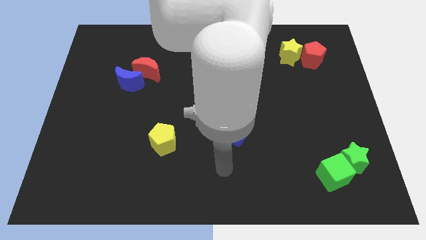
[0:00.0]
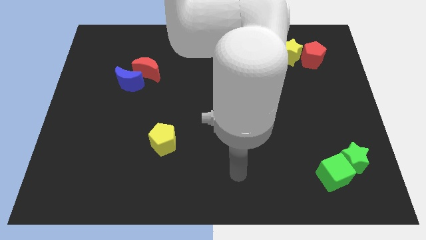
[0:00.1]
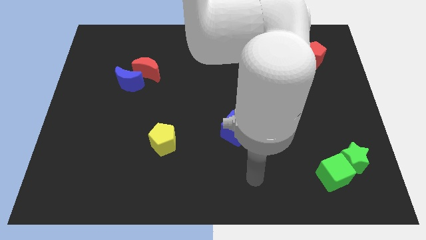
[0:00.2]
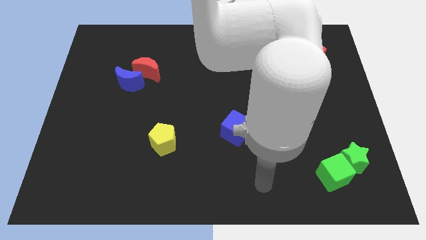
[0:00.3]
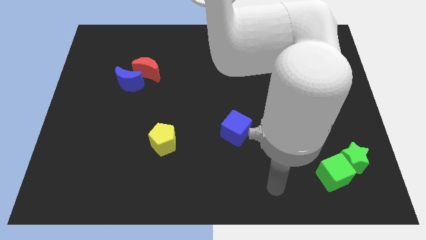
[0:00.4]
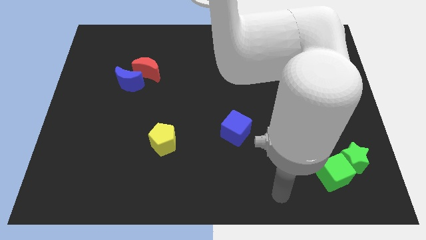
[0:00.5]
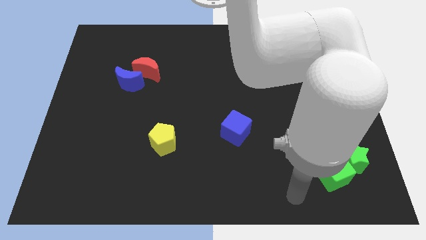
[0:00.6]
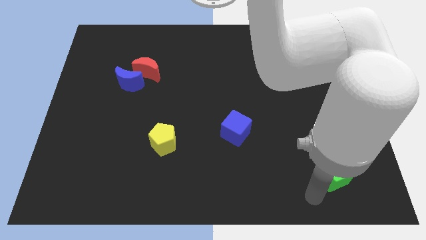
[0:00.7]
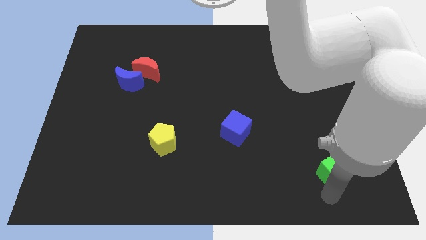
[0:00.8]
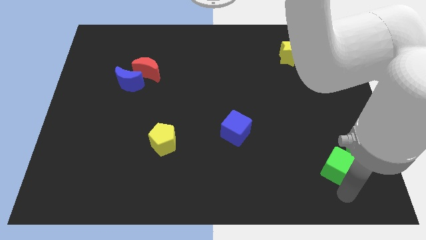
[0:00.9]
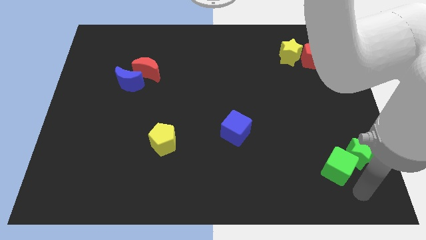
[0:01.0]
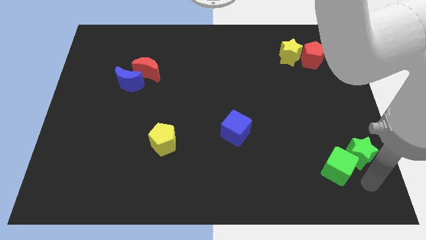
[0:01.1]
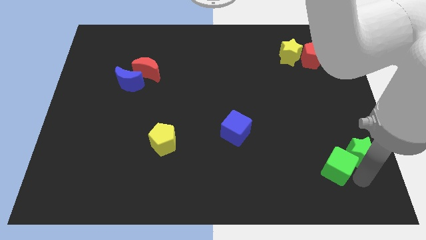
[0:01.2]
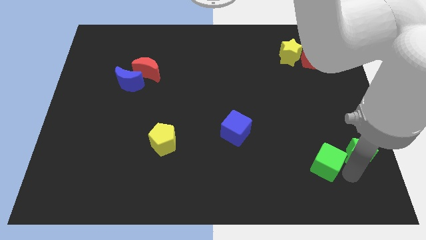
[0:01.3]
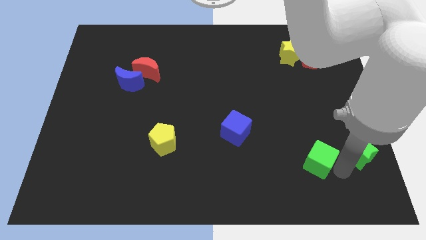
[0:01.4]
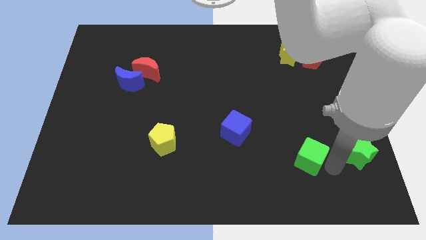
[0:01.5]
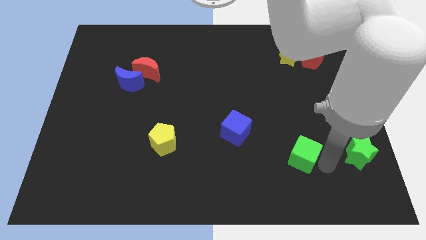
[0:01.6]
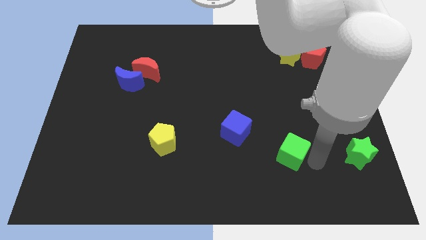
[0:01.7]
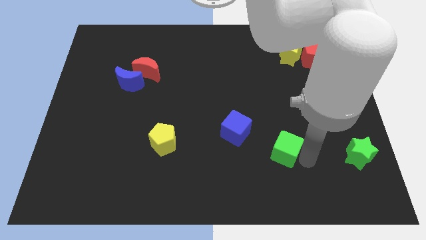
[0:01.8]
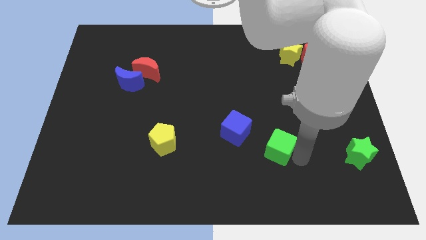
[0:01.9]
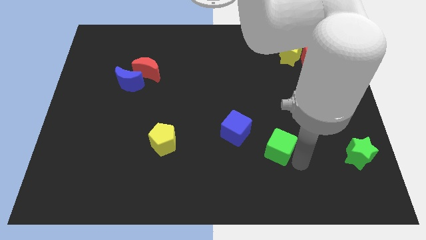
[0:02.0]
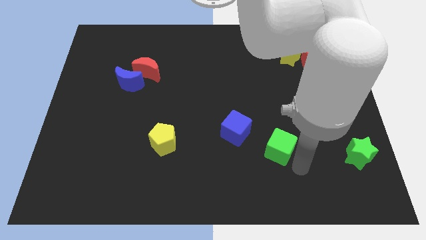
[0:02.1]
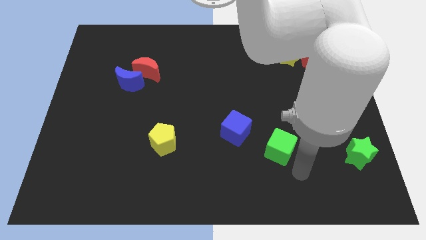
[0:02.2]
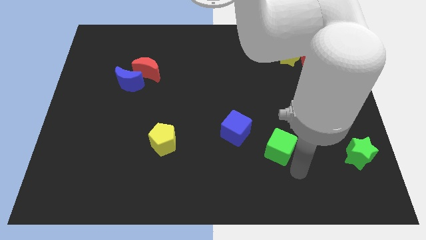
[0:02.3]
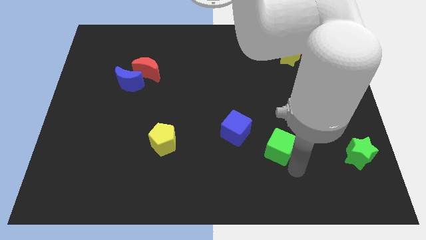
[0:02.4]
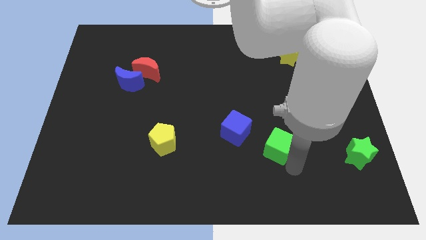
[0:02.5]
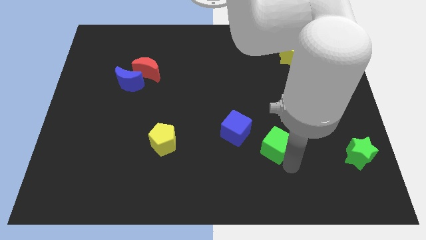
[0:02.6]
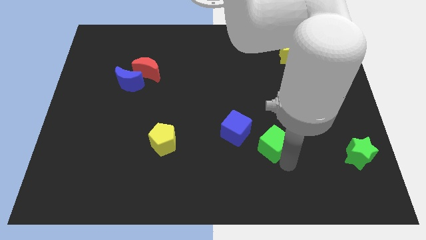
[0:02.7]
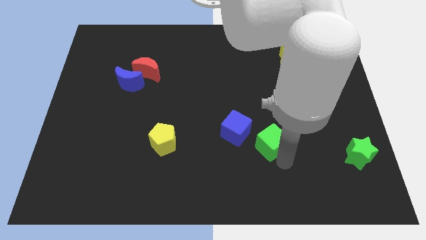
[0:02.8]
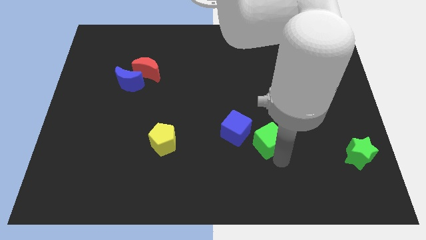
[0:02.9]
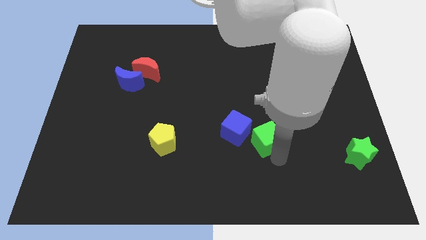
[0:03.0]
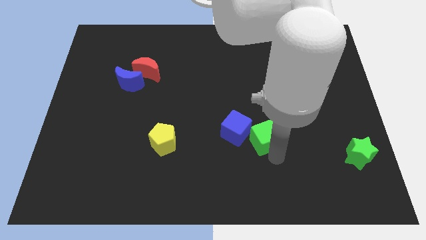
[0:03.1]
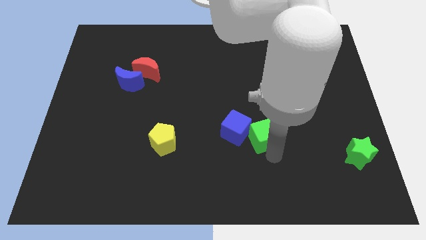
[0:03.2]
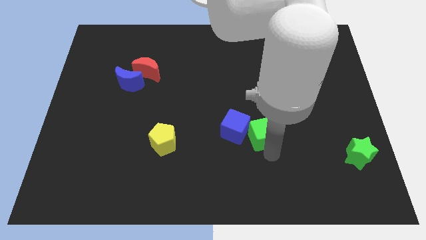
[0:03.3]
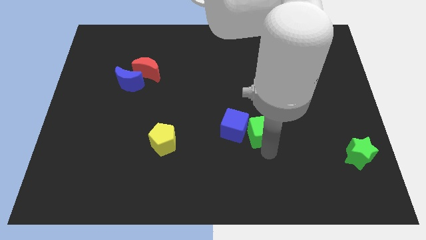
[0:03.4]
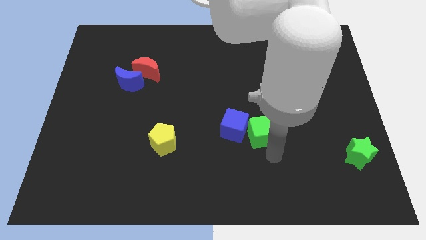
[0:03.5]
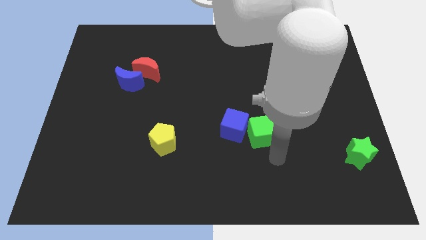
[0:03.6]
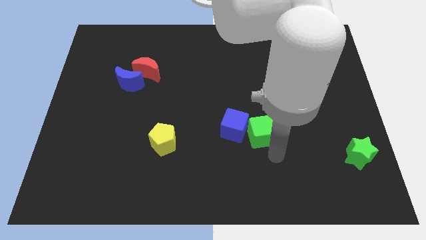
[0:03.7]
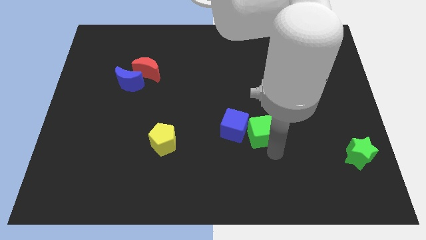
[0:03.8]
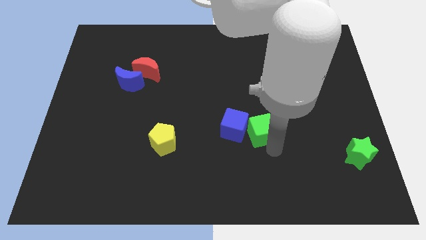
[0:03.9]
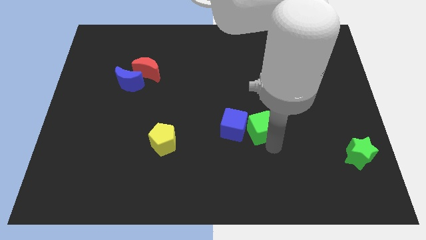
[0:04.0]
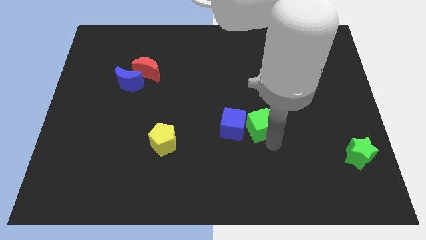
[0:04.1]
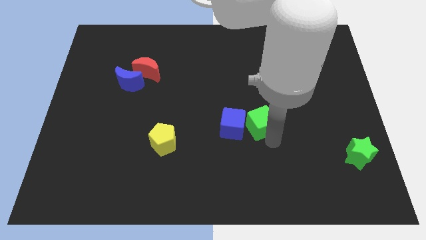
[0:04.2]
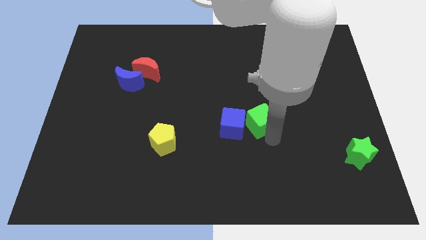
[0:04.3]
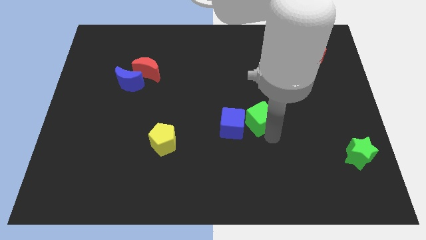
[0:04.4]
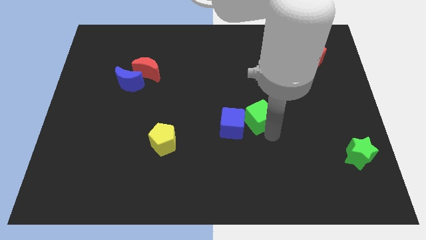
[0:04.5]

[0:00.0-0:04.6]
move the green cube upwards and to the left

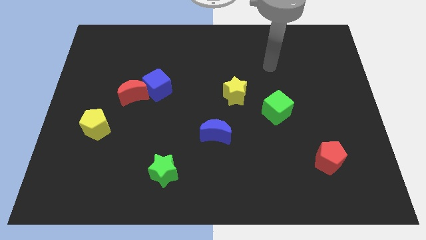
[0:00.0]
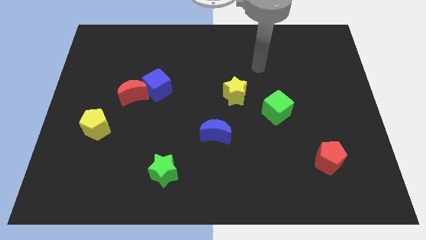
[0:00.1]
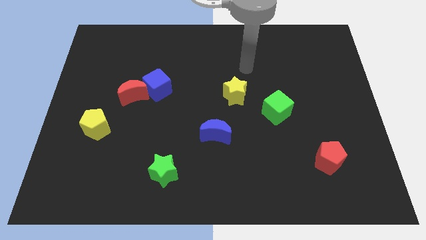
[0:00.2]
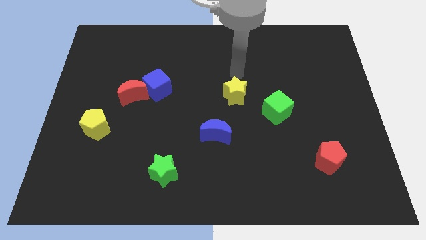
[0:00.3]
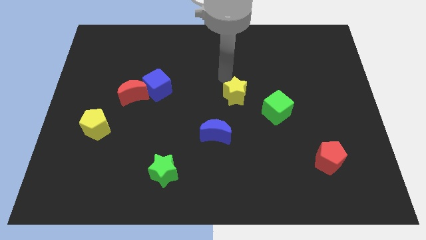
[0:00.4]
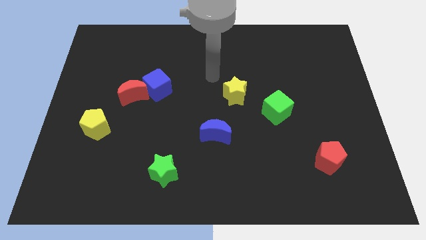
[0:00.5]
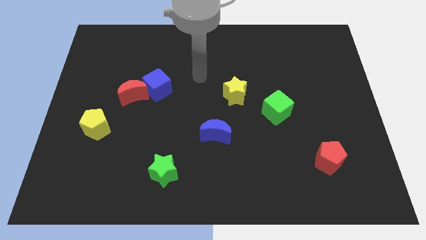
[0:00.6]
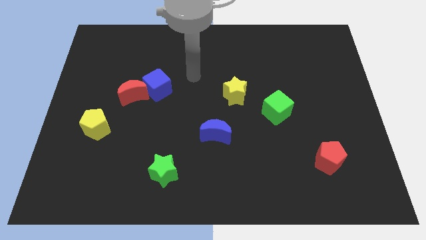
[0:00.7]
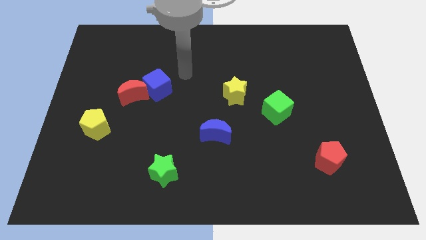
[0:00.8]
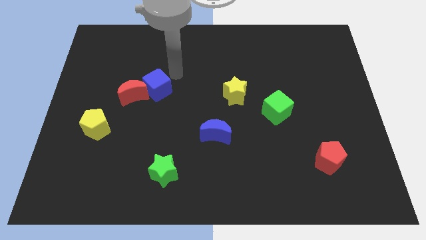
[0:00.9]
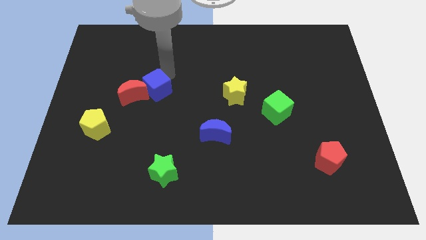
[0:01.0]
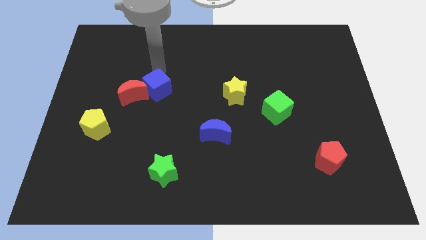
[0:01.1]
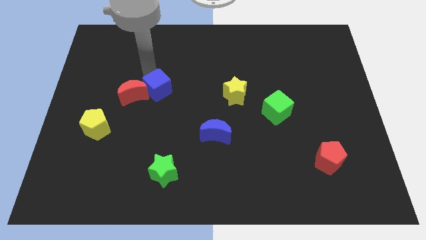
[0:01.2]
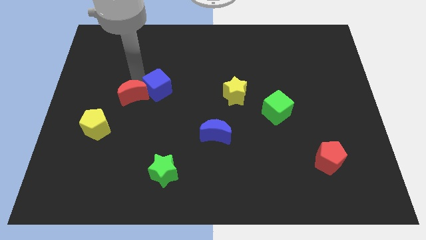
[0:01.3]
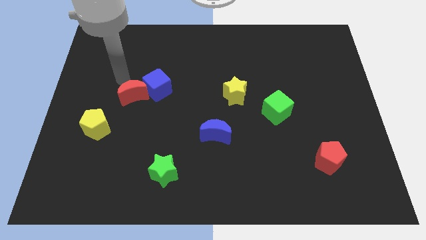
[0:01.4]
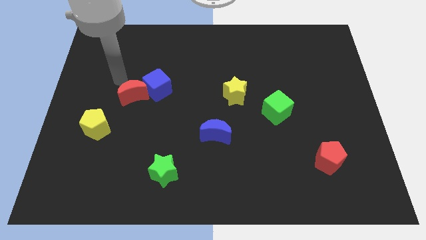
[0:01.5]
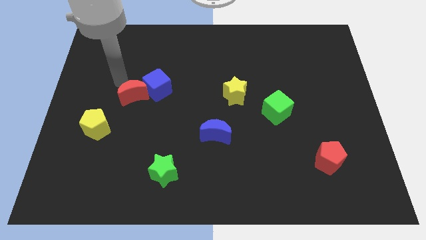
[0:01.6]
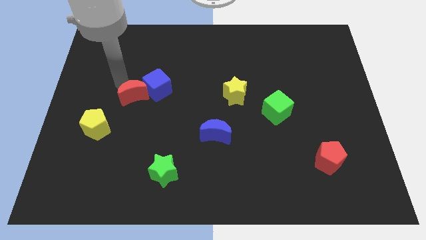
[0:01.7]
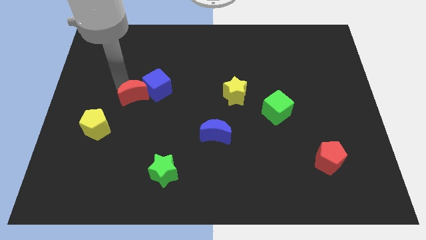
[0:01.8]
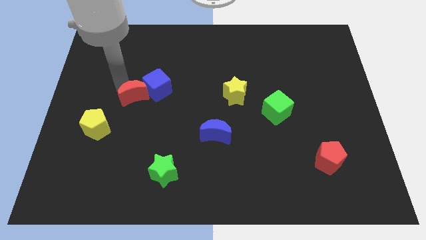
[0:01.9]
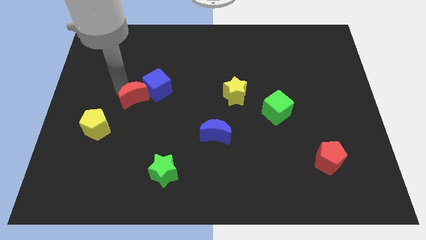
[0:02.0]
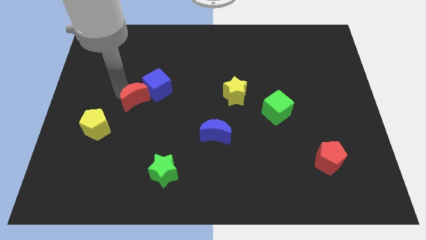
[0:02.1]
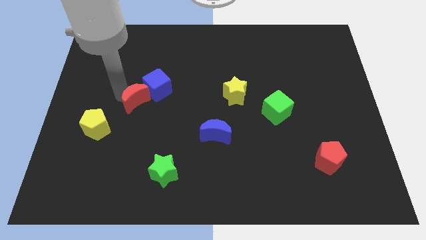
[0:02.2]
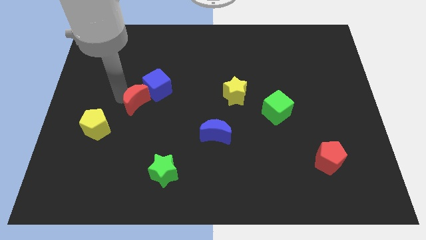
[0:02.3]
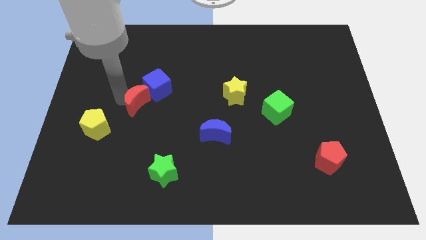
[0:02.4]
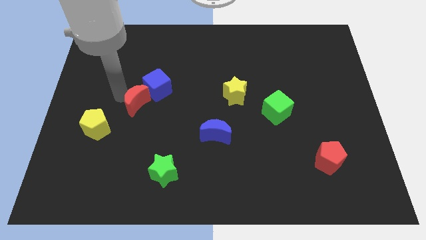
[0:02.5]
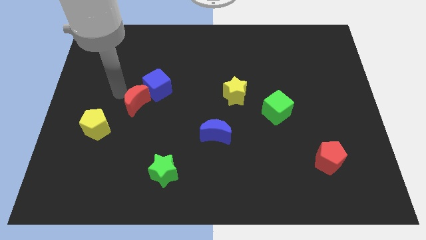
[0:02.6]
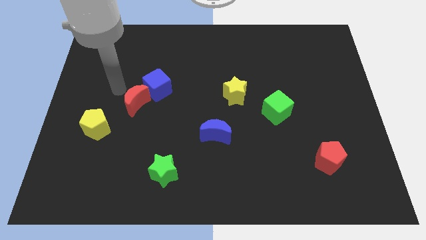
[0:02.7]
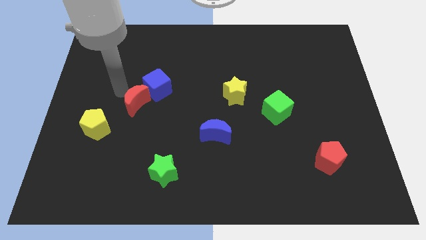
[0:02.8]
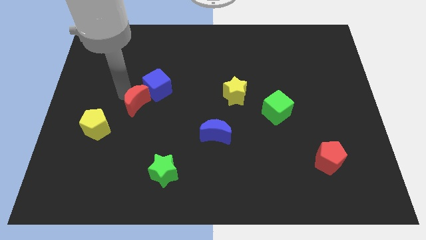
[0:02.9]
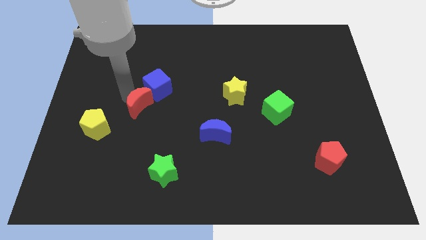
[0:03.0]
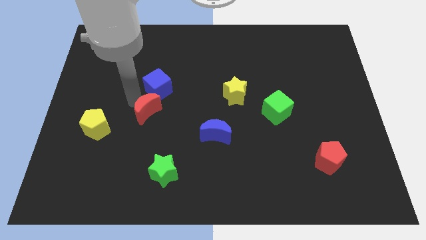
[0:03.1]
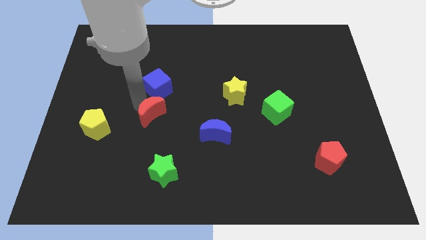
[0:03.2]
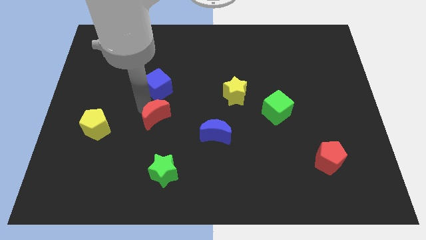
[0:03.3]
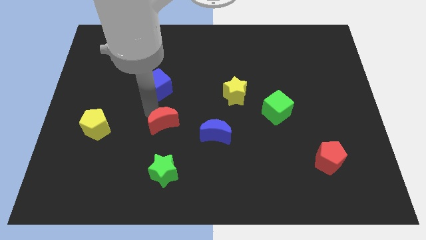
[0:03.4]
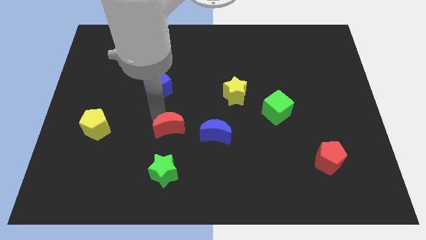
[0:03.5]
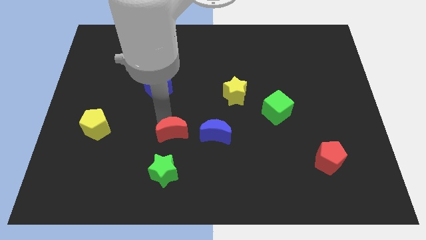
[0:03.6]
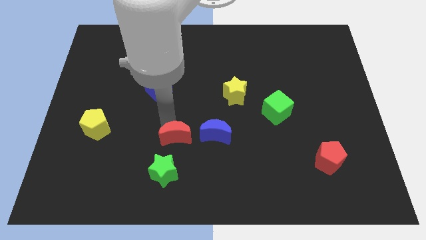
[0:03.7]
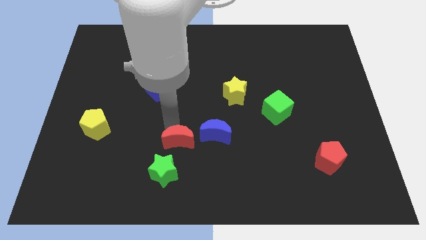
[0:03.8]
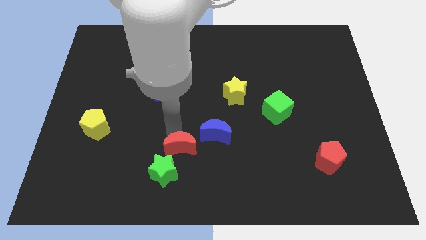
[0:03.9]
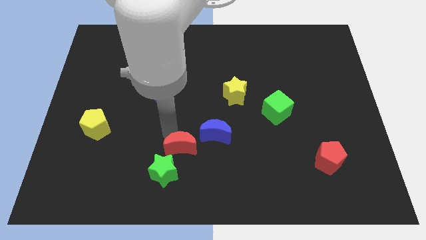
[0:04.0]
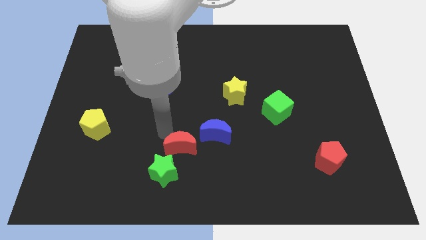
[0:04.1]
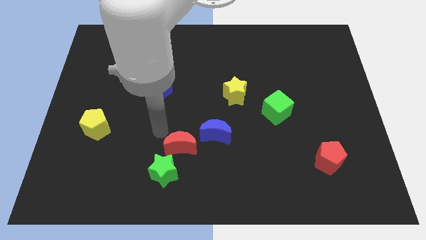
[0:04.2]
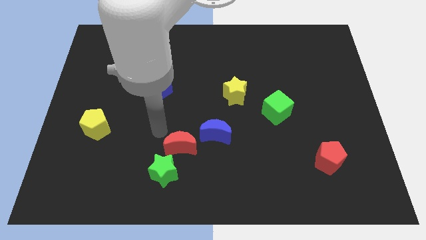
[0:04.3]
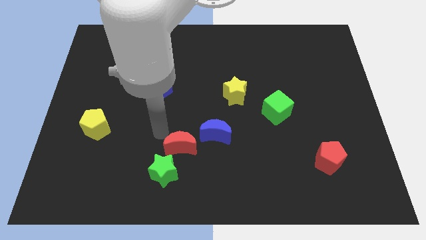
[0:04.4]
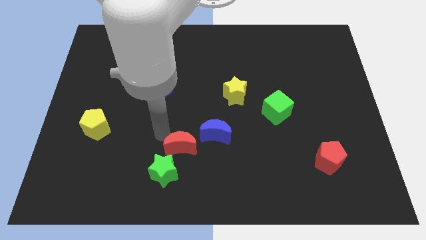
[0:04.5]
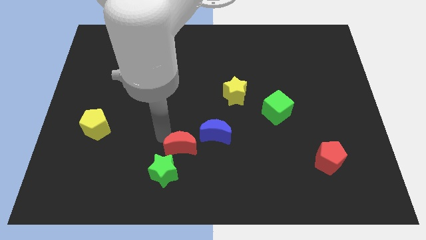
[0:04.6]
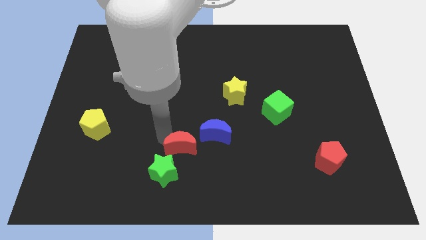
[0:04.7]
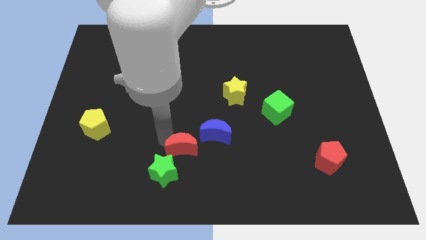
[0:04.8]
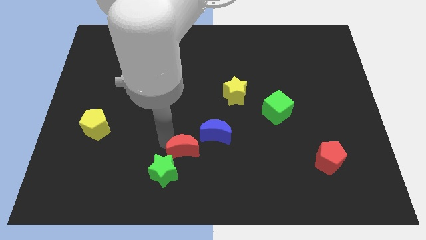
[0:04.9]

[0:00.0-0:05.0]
slide the red moon down and to the right
